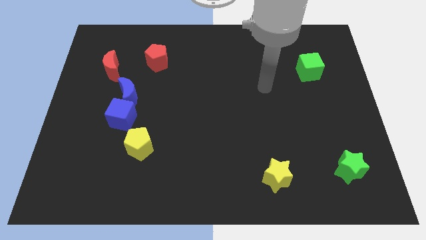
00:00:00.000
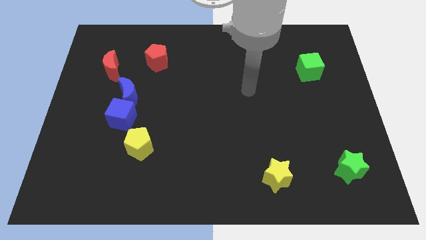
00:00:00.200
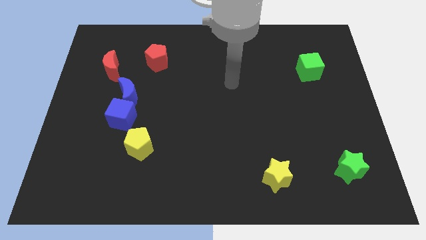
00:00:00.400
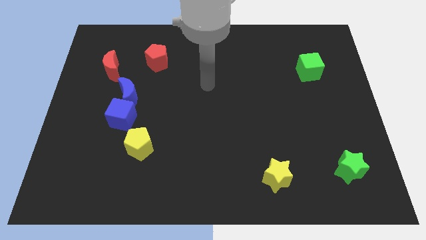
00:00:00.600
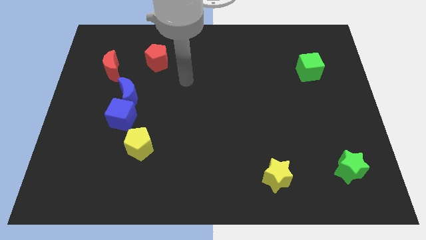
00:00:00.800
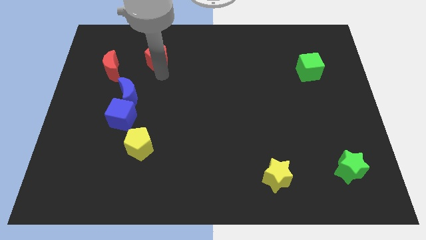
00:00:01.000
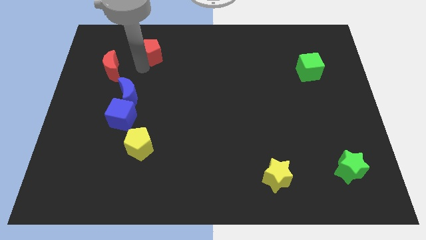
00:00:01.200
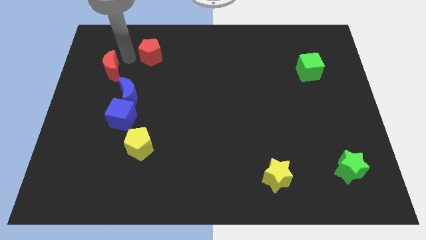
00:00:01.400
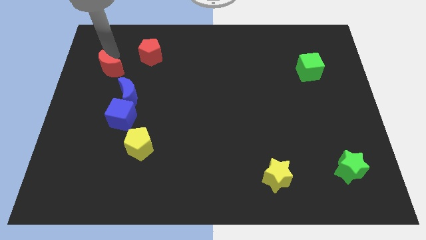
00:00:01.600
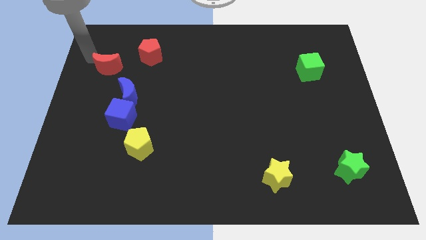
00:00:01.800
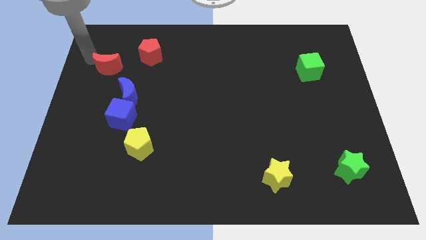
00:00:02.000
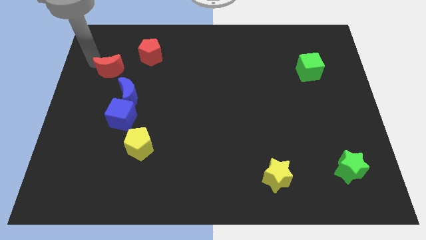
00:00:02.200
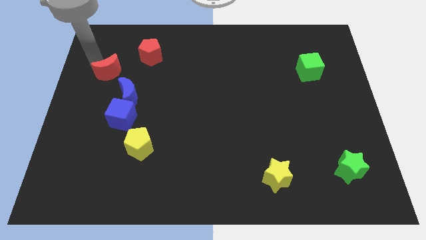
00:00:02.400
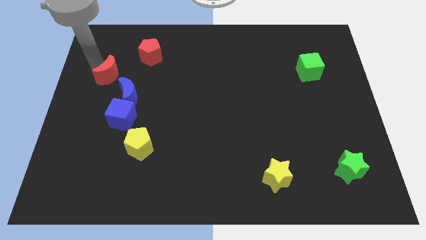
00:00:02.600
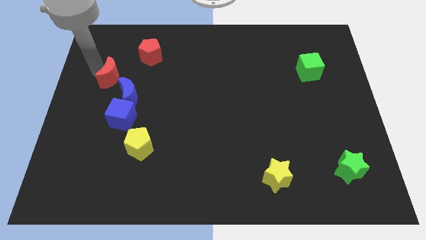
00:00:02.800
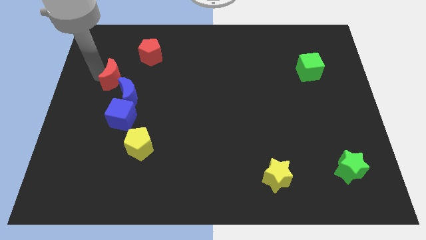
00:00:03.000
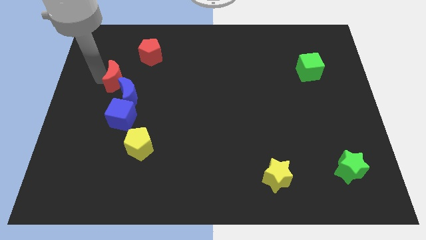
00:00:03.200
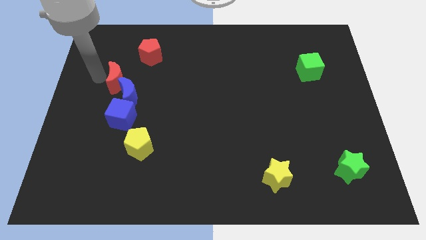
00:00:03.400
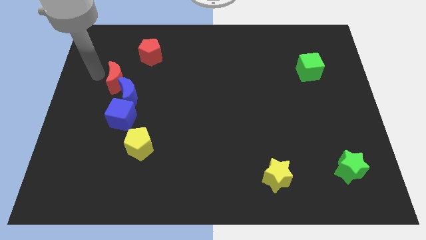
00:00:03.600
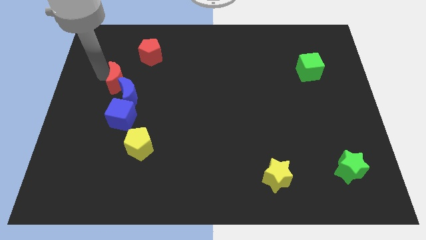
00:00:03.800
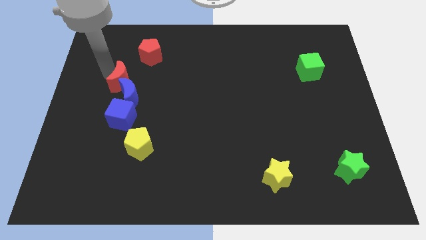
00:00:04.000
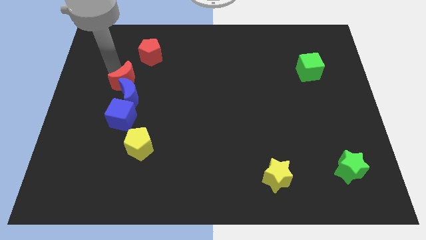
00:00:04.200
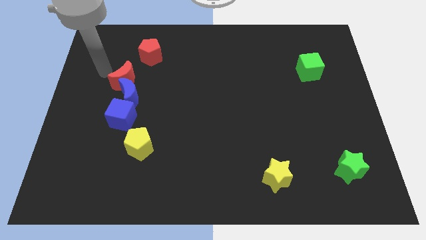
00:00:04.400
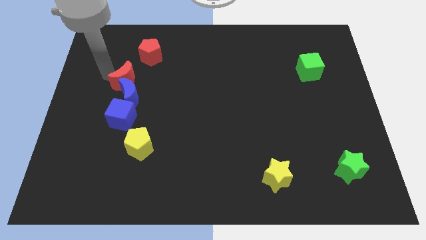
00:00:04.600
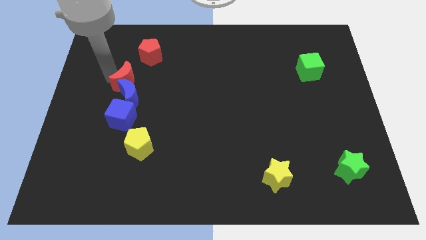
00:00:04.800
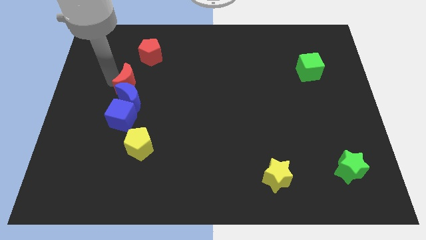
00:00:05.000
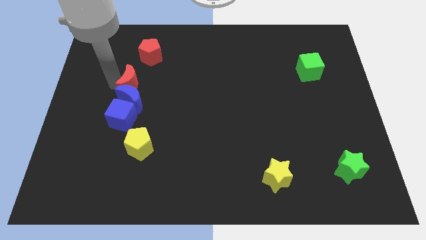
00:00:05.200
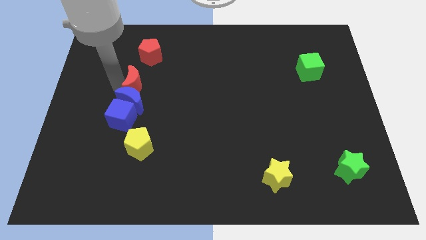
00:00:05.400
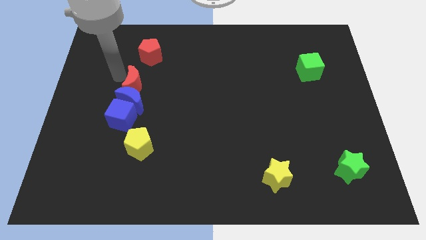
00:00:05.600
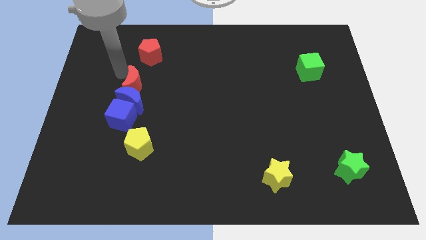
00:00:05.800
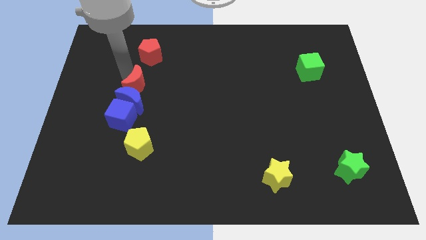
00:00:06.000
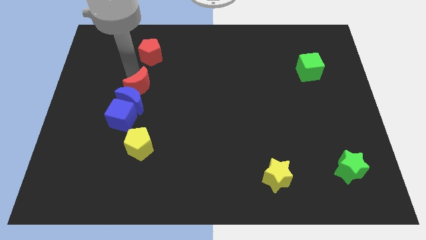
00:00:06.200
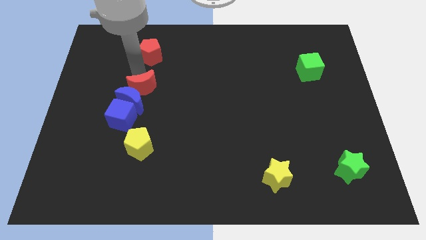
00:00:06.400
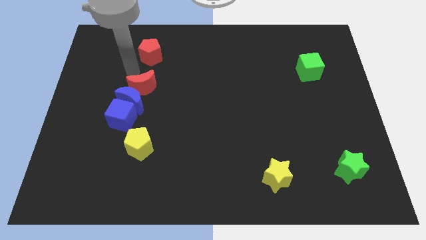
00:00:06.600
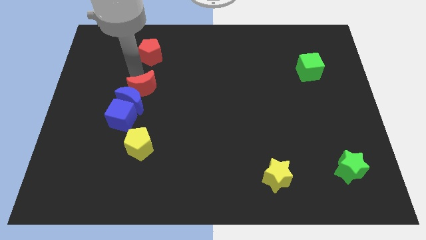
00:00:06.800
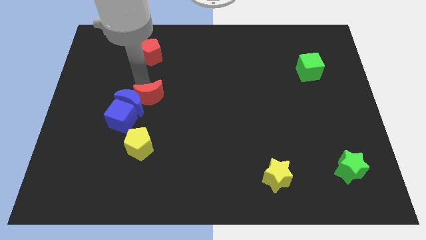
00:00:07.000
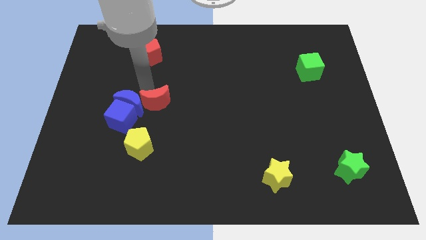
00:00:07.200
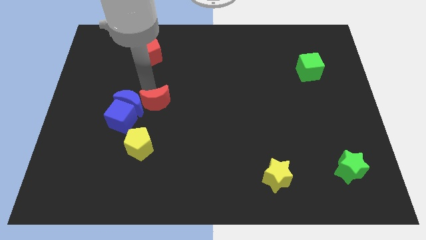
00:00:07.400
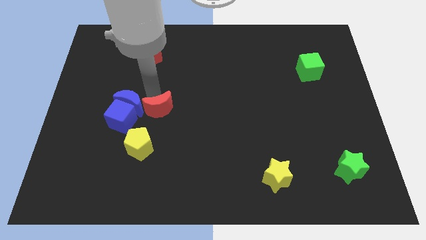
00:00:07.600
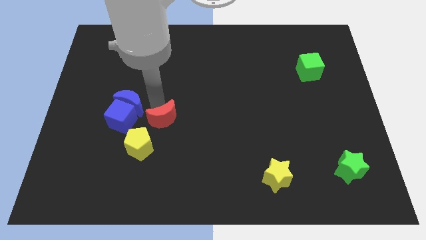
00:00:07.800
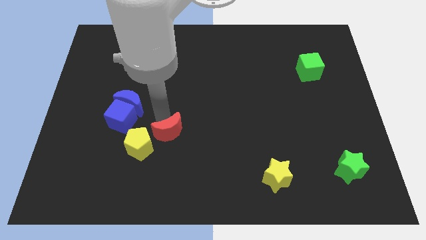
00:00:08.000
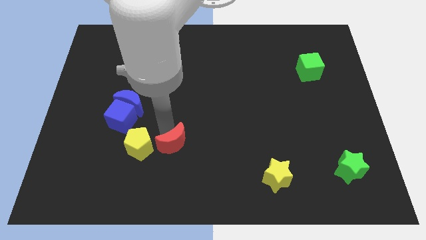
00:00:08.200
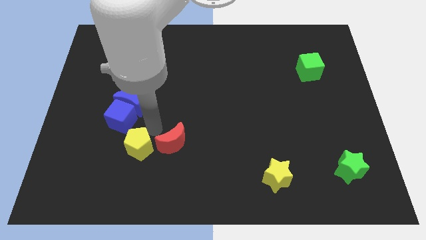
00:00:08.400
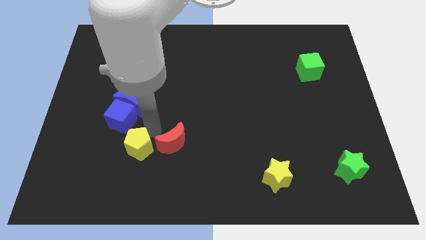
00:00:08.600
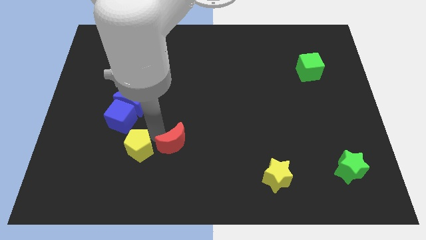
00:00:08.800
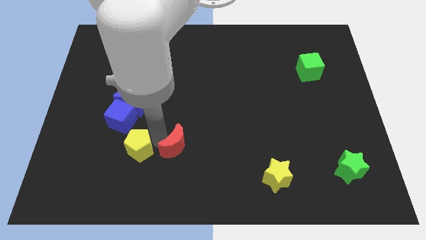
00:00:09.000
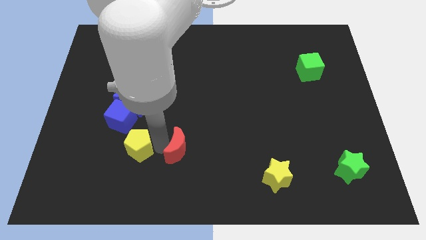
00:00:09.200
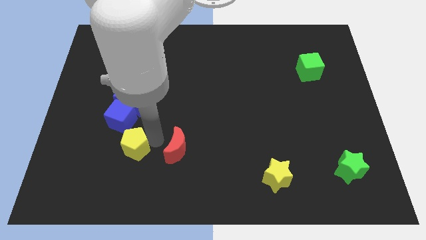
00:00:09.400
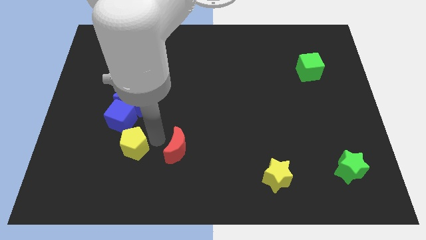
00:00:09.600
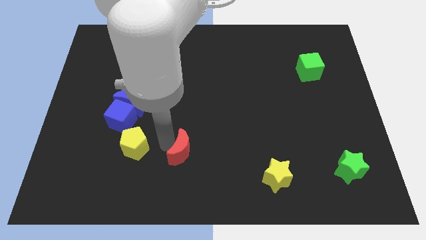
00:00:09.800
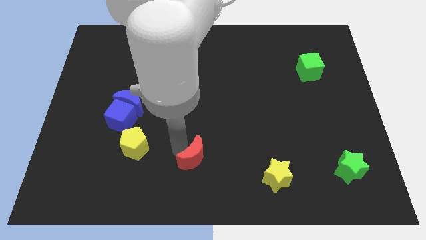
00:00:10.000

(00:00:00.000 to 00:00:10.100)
push the red moon to the bottom side

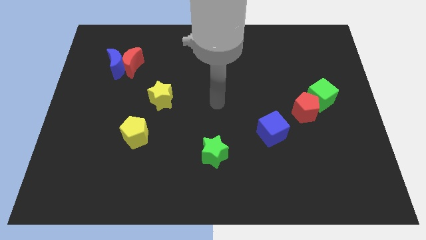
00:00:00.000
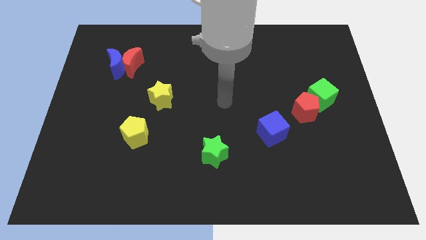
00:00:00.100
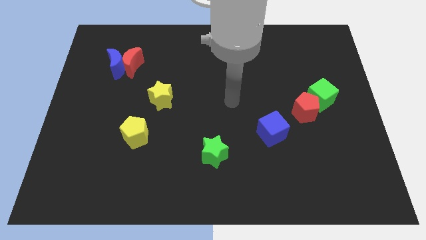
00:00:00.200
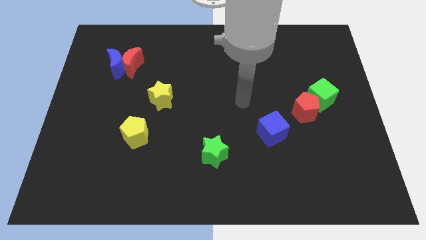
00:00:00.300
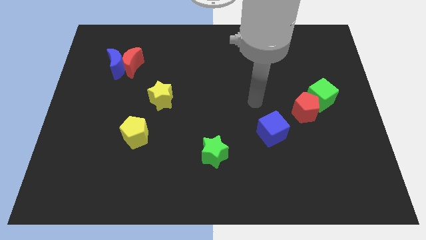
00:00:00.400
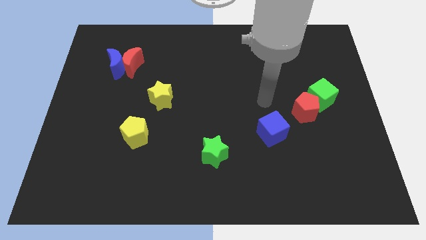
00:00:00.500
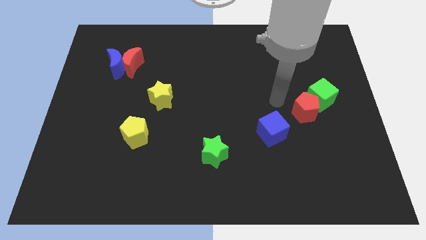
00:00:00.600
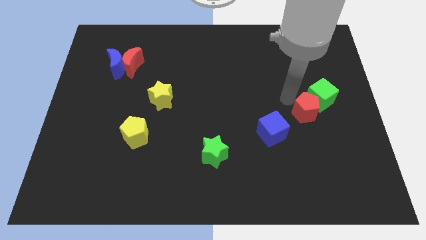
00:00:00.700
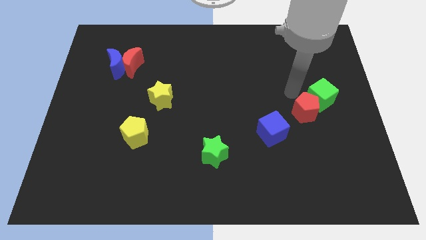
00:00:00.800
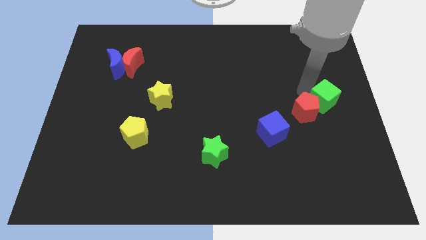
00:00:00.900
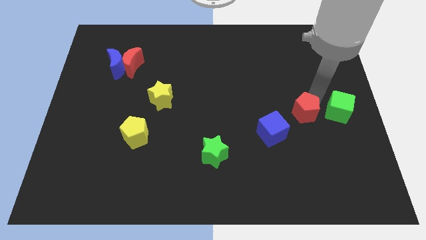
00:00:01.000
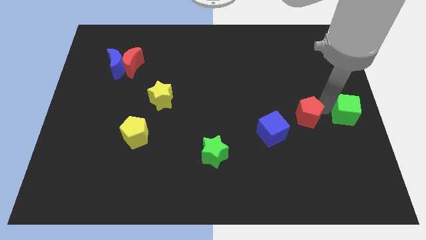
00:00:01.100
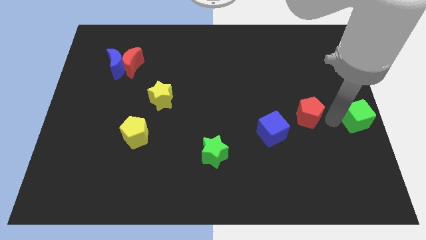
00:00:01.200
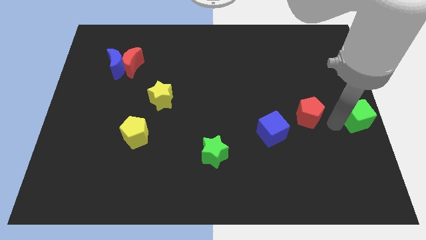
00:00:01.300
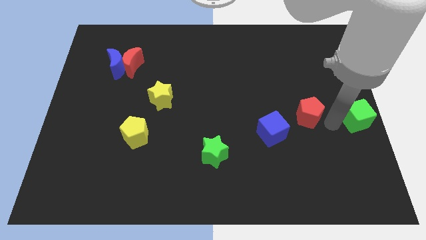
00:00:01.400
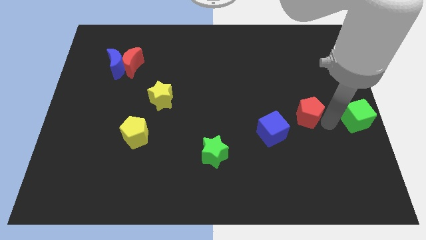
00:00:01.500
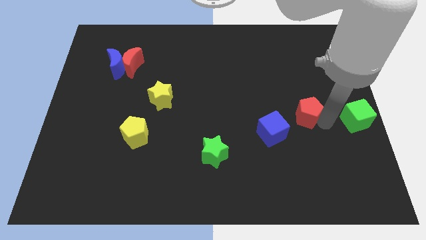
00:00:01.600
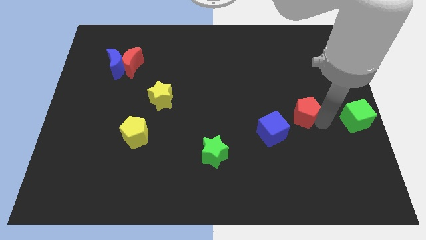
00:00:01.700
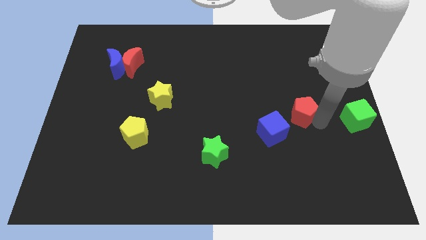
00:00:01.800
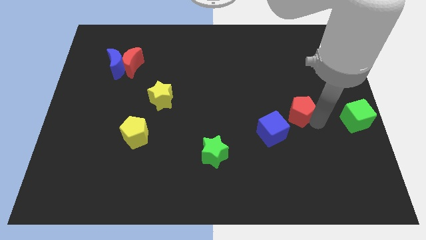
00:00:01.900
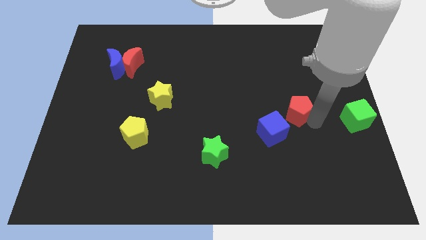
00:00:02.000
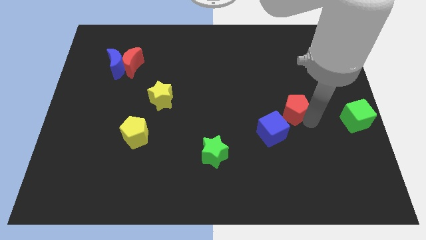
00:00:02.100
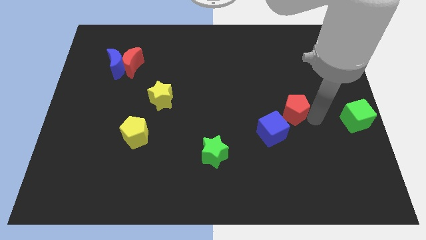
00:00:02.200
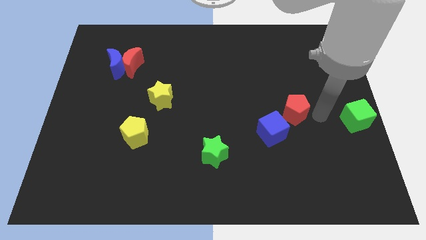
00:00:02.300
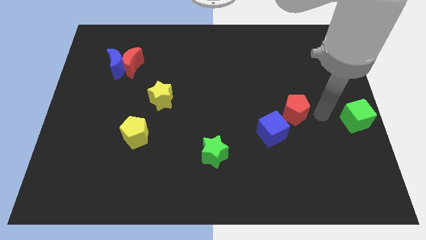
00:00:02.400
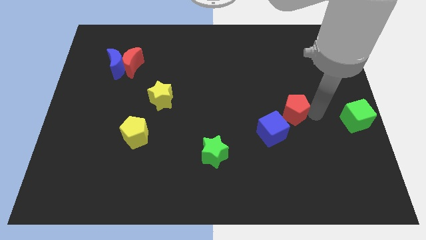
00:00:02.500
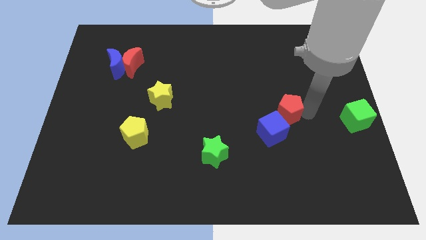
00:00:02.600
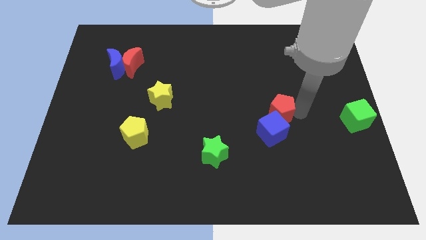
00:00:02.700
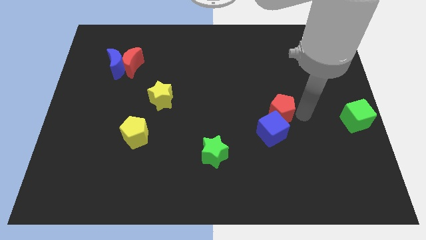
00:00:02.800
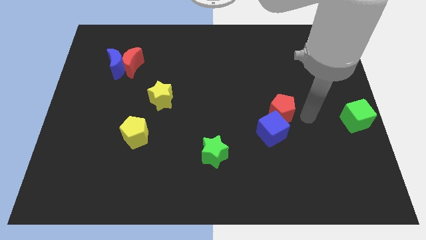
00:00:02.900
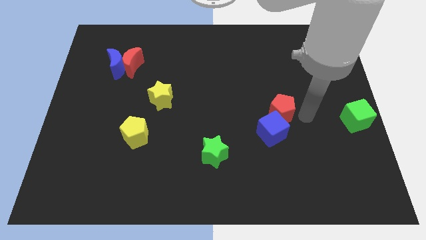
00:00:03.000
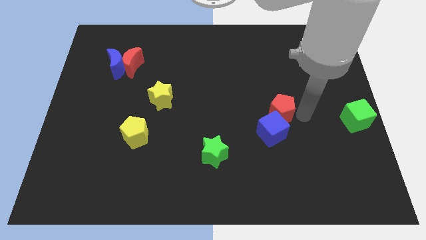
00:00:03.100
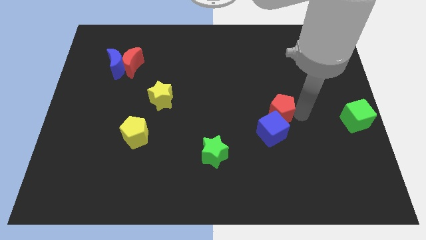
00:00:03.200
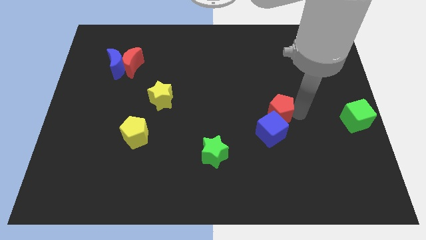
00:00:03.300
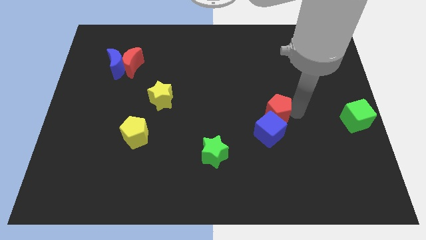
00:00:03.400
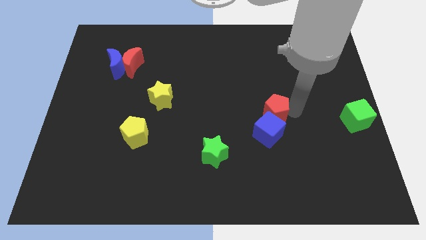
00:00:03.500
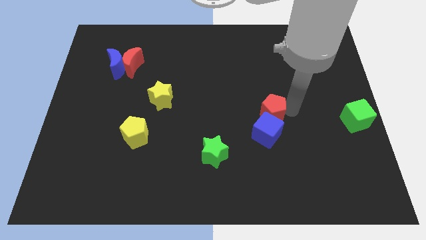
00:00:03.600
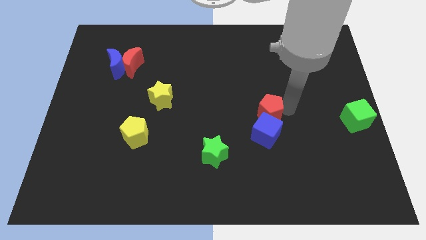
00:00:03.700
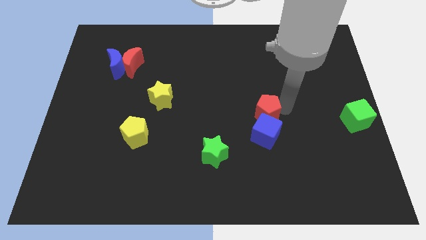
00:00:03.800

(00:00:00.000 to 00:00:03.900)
move the red pentagon to the middle
